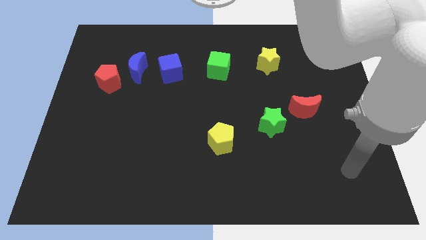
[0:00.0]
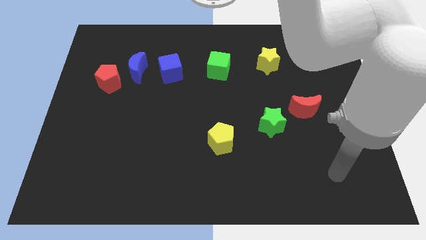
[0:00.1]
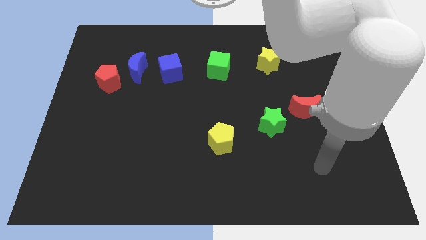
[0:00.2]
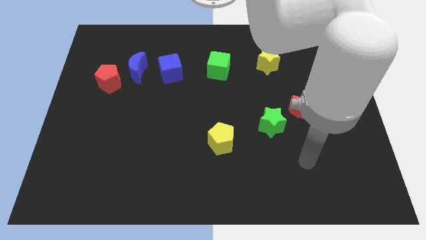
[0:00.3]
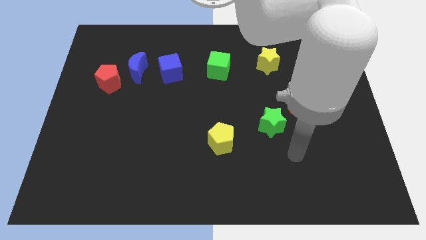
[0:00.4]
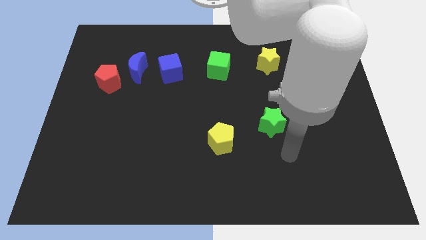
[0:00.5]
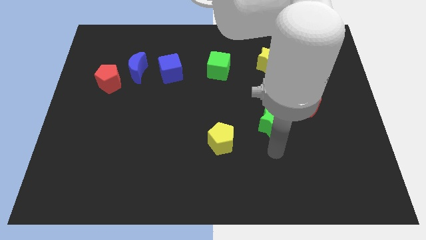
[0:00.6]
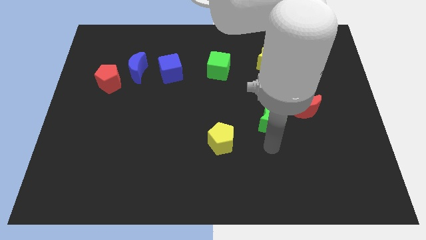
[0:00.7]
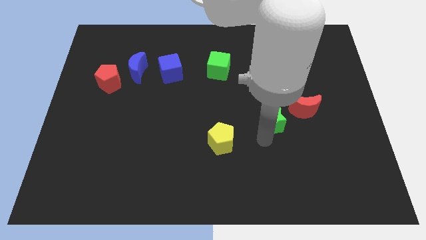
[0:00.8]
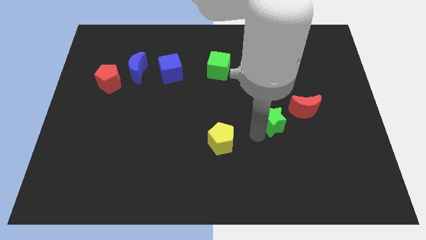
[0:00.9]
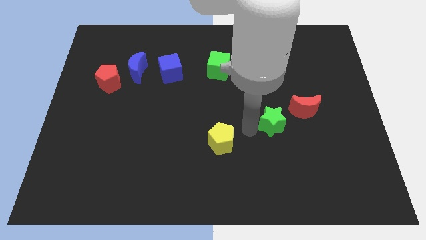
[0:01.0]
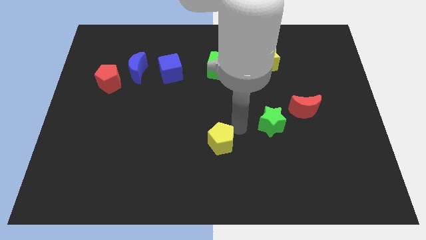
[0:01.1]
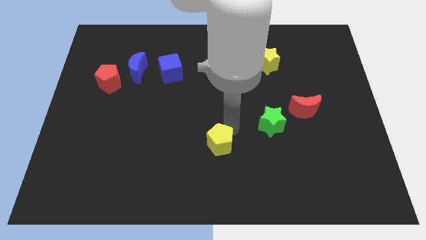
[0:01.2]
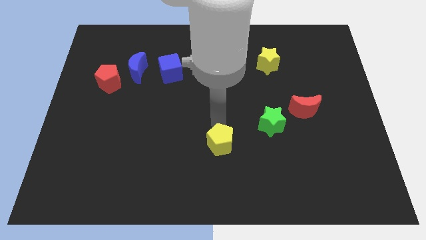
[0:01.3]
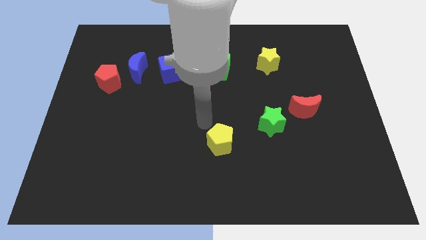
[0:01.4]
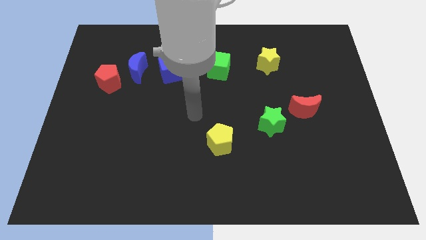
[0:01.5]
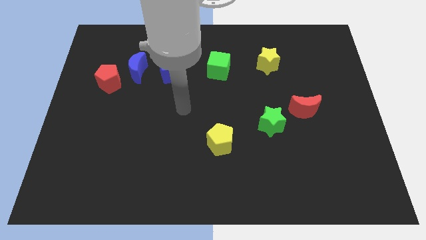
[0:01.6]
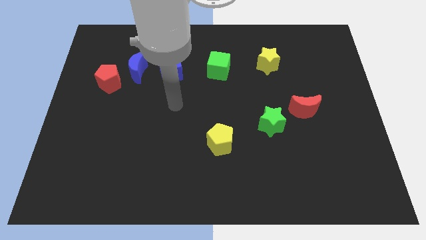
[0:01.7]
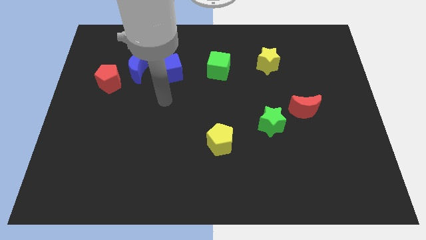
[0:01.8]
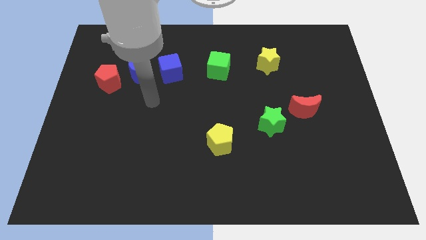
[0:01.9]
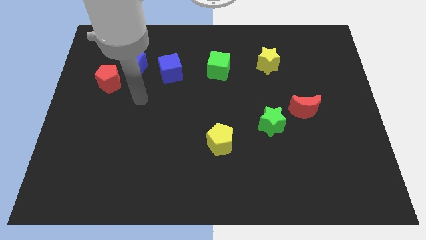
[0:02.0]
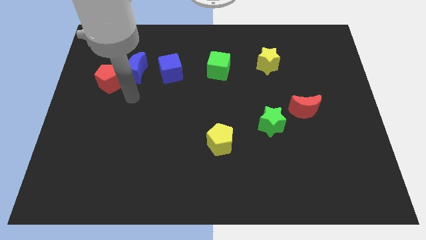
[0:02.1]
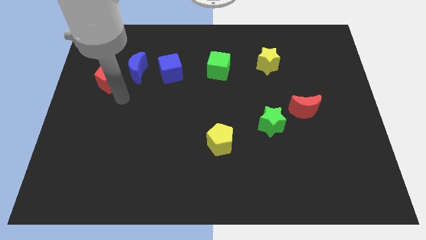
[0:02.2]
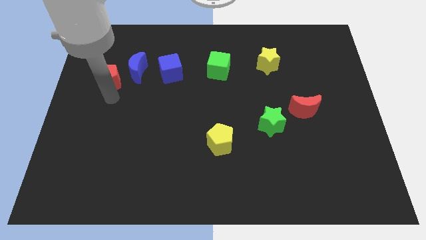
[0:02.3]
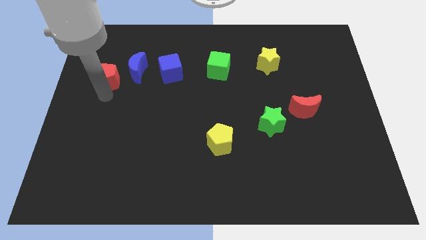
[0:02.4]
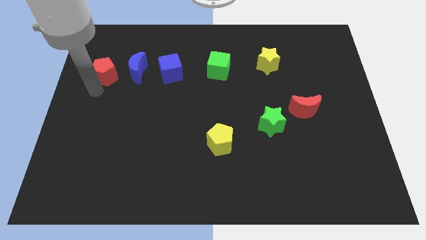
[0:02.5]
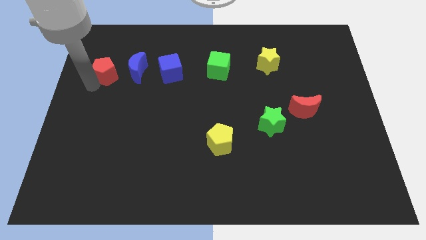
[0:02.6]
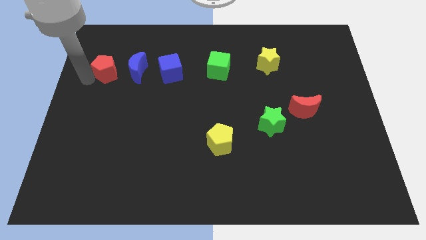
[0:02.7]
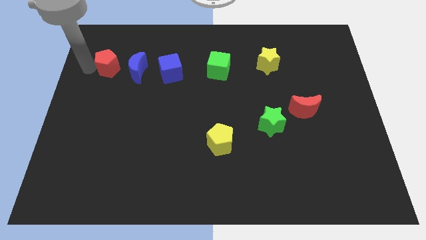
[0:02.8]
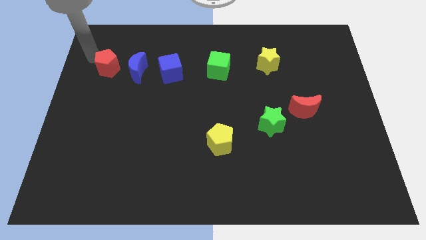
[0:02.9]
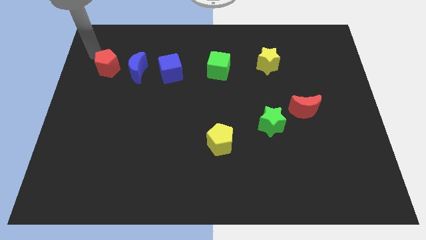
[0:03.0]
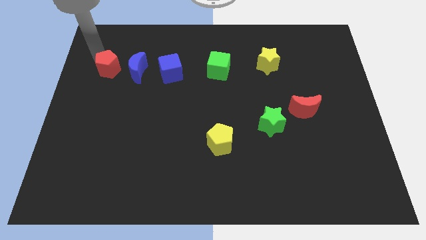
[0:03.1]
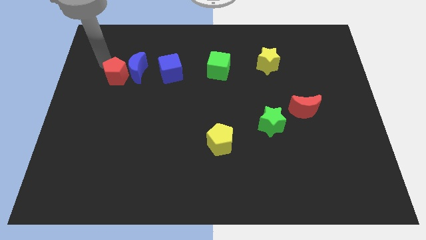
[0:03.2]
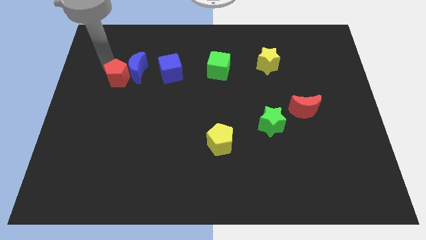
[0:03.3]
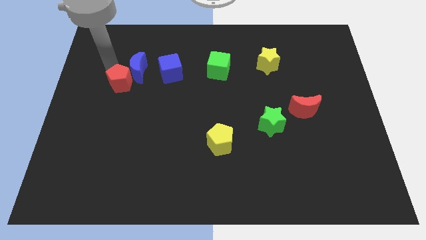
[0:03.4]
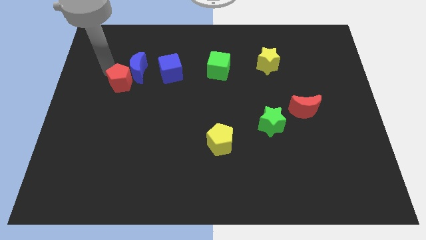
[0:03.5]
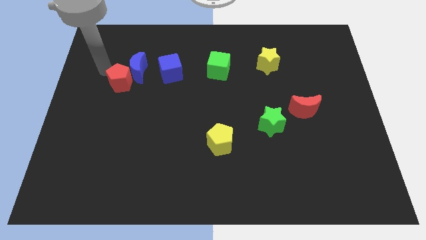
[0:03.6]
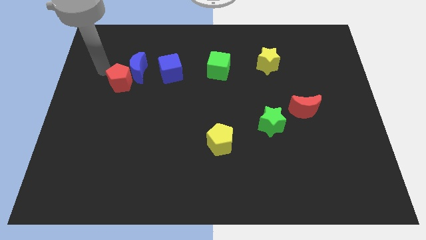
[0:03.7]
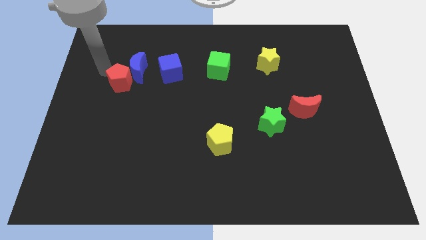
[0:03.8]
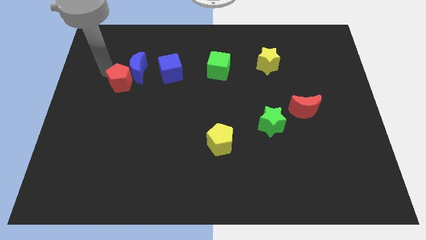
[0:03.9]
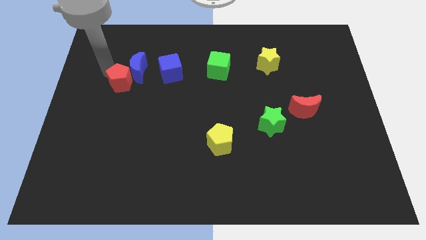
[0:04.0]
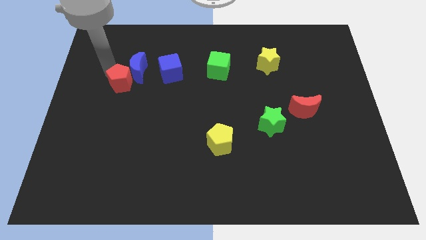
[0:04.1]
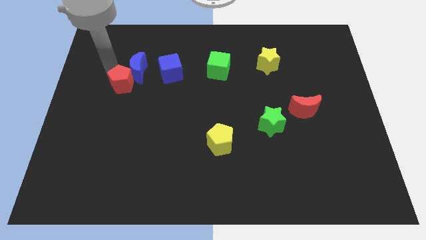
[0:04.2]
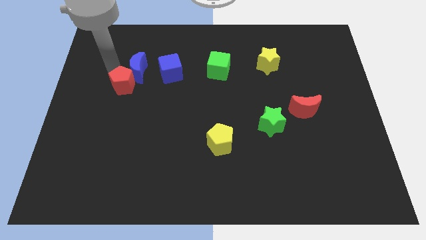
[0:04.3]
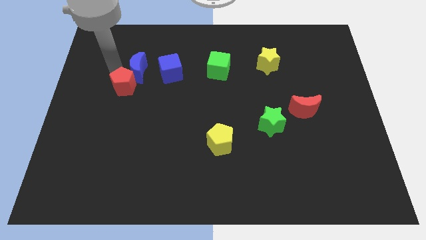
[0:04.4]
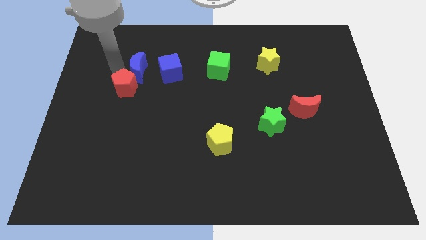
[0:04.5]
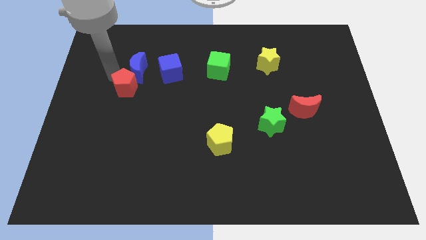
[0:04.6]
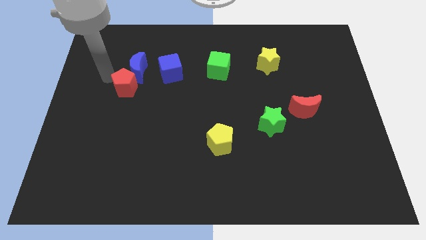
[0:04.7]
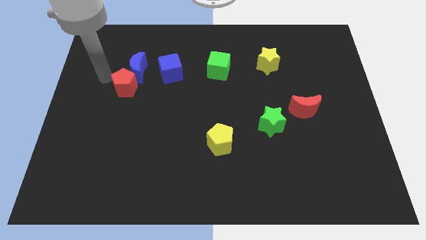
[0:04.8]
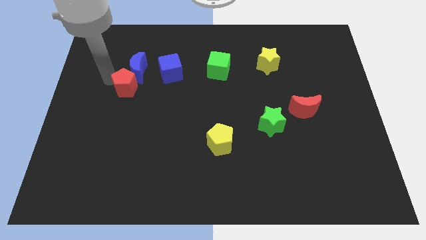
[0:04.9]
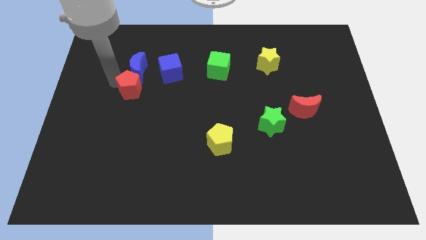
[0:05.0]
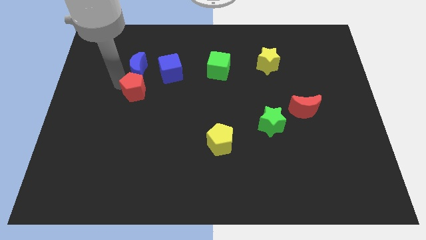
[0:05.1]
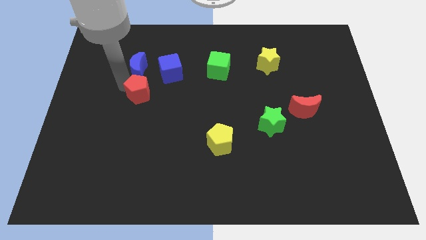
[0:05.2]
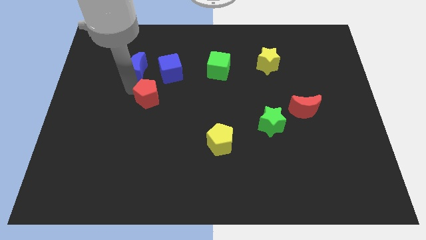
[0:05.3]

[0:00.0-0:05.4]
put the red pentagon below the blue cube

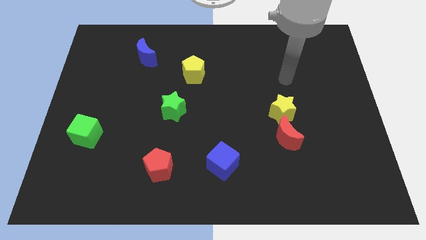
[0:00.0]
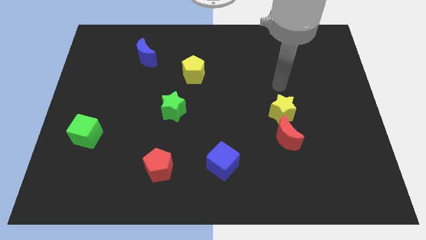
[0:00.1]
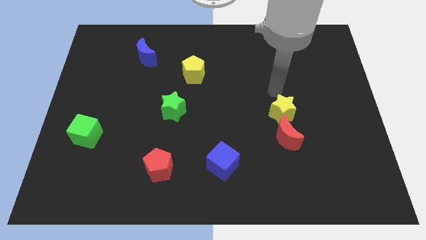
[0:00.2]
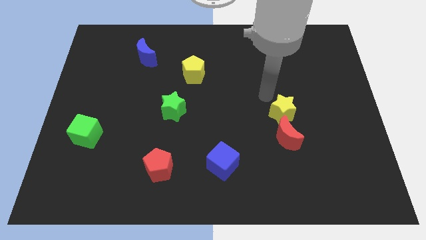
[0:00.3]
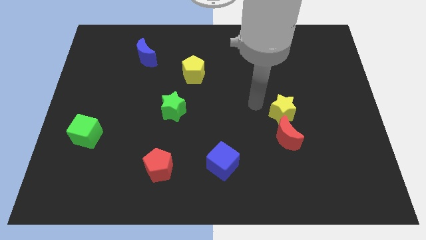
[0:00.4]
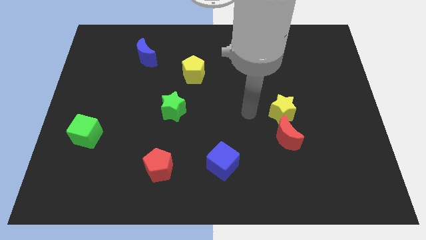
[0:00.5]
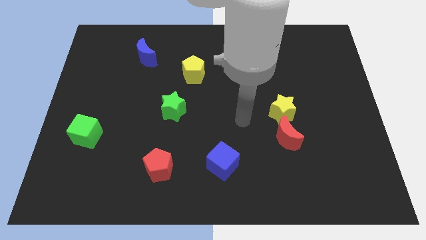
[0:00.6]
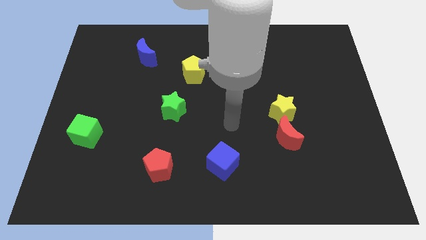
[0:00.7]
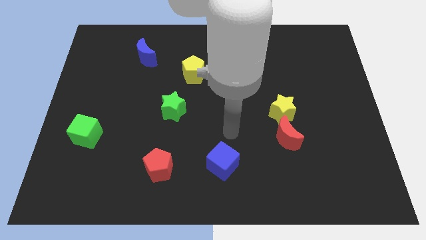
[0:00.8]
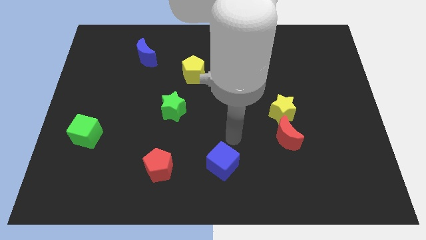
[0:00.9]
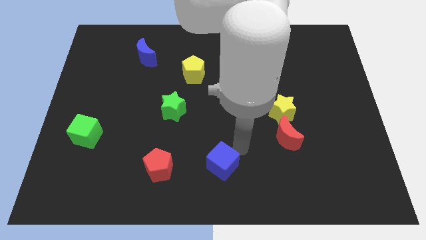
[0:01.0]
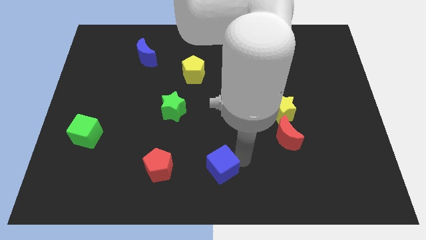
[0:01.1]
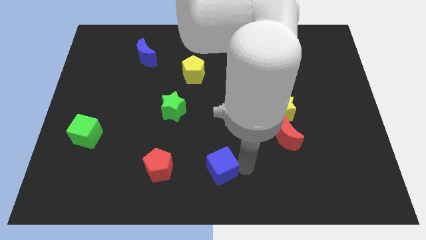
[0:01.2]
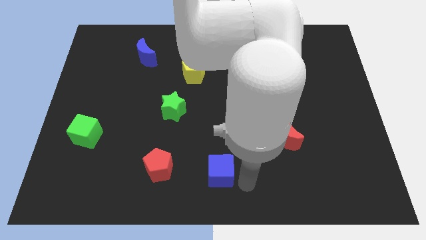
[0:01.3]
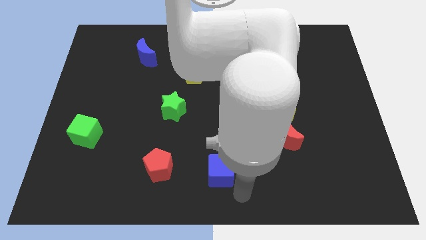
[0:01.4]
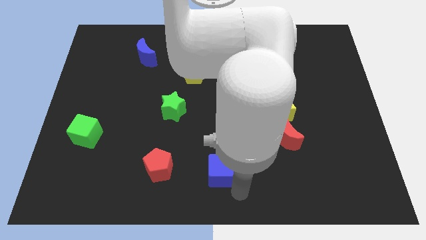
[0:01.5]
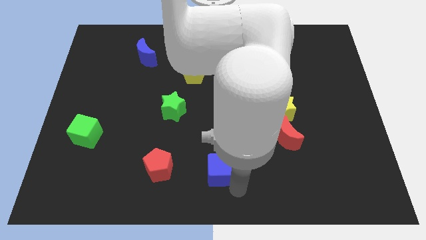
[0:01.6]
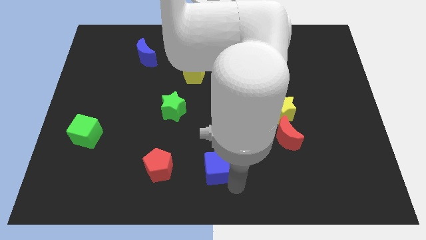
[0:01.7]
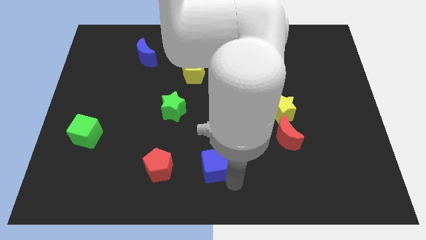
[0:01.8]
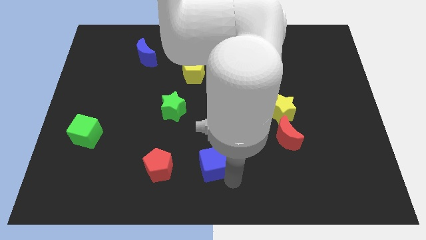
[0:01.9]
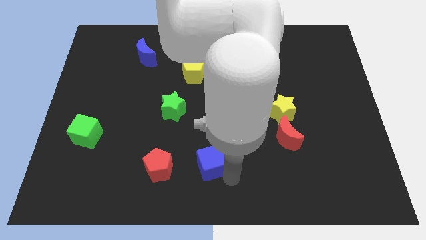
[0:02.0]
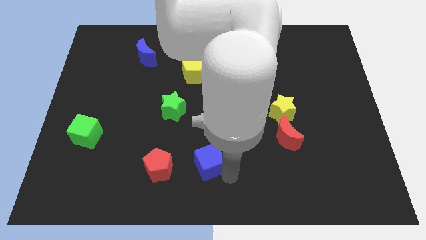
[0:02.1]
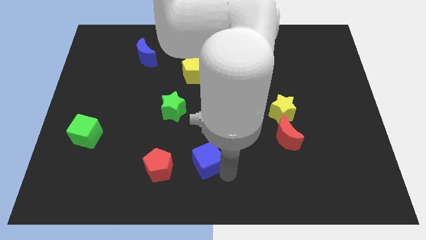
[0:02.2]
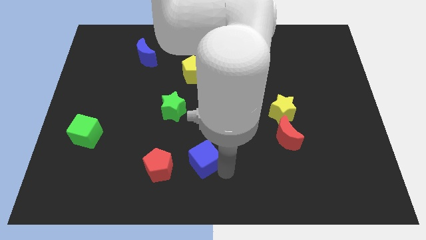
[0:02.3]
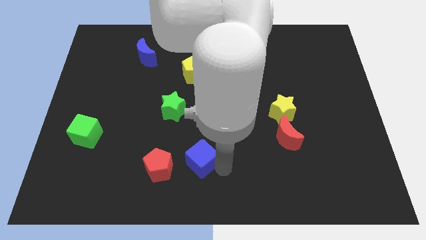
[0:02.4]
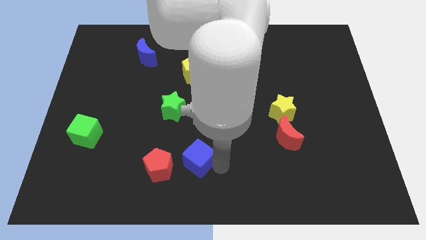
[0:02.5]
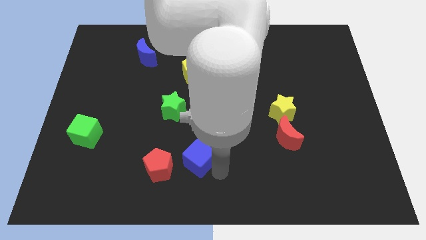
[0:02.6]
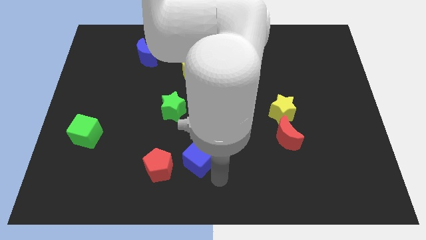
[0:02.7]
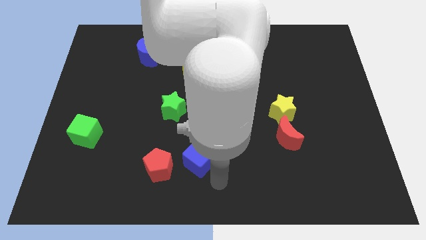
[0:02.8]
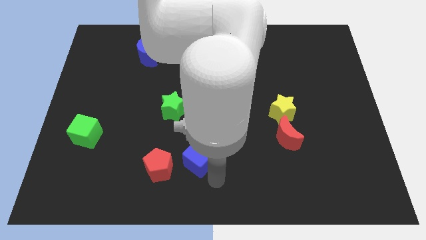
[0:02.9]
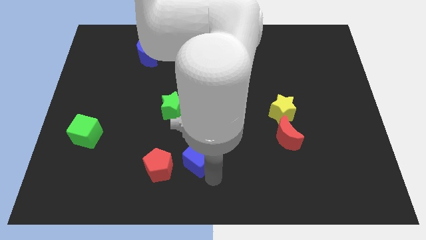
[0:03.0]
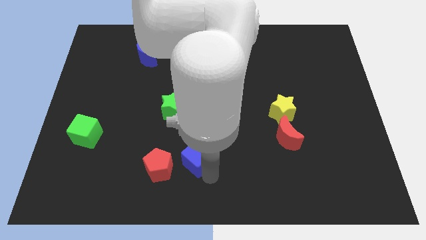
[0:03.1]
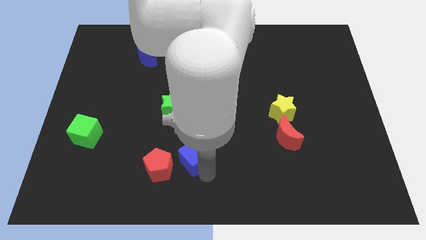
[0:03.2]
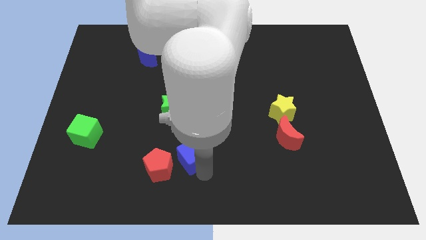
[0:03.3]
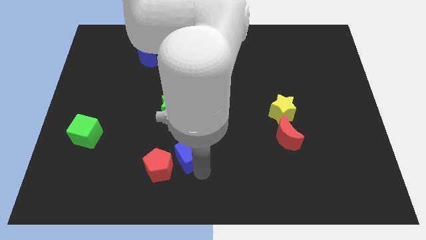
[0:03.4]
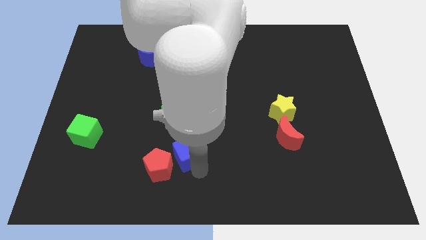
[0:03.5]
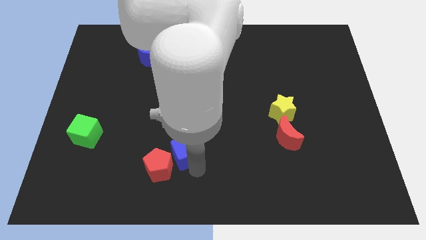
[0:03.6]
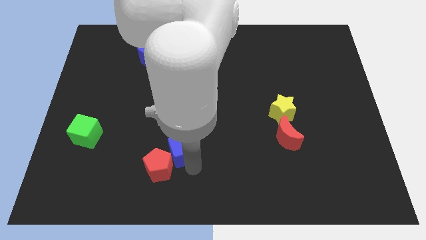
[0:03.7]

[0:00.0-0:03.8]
put the blue cube above the red pentagon
